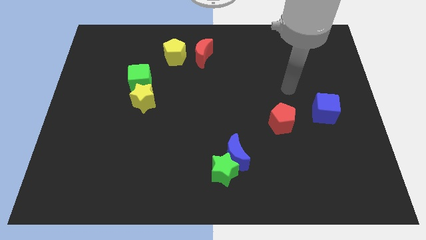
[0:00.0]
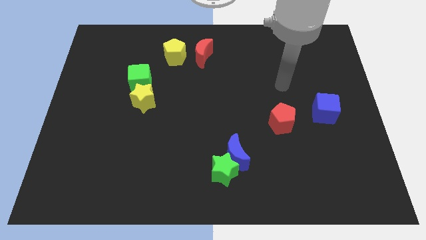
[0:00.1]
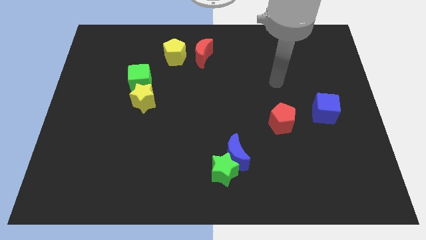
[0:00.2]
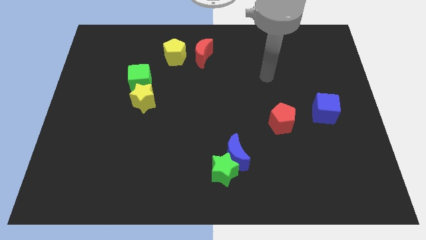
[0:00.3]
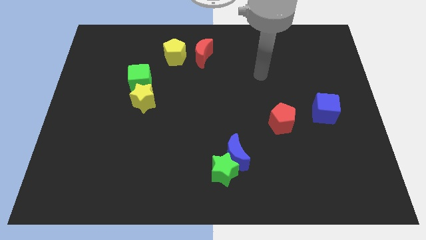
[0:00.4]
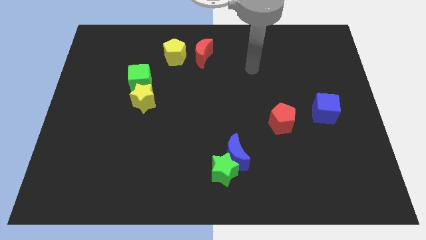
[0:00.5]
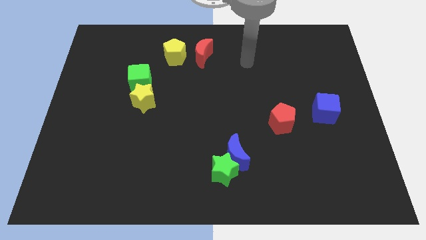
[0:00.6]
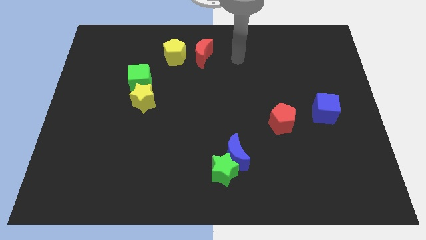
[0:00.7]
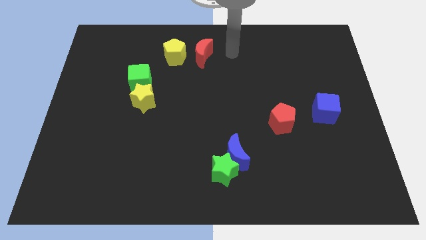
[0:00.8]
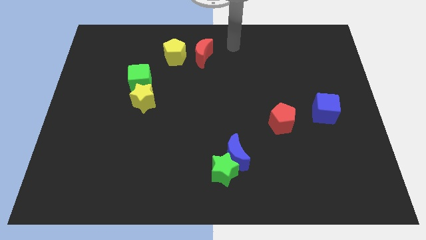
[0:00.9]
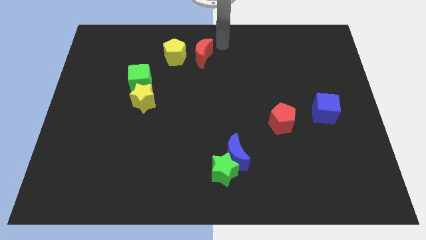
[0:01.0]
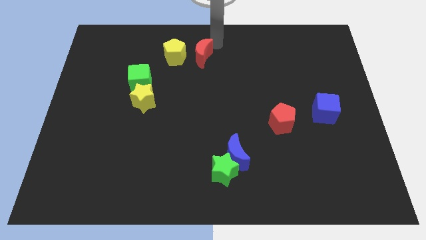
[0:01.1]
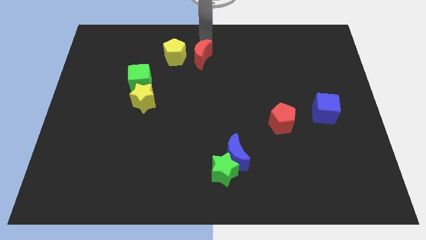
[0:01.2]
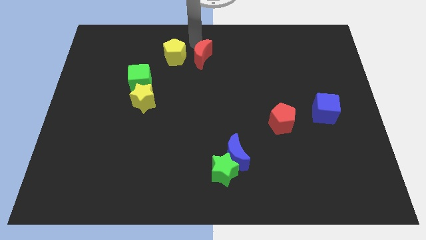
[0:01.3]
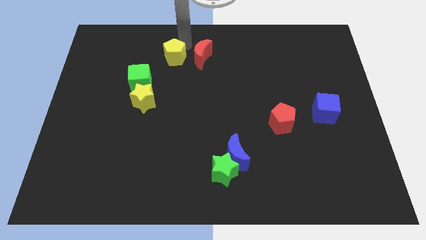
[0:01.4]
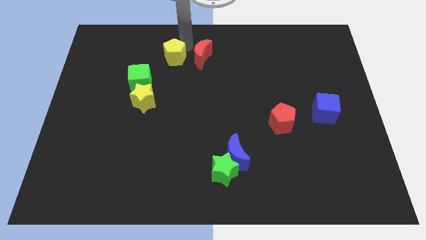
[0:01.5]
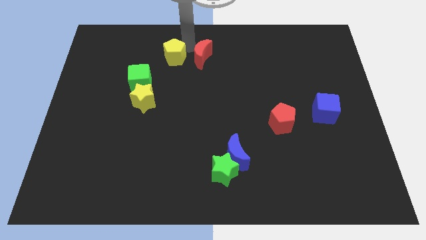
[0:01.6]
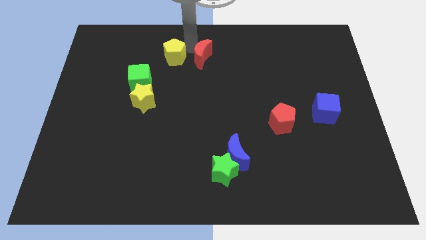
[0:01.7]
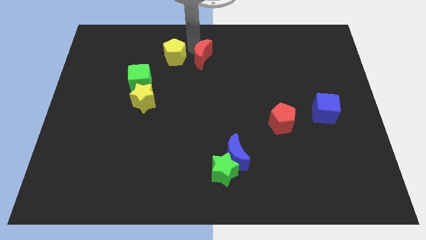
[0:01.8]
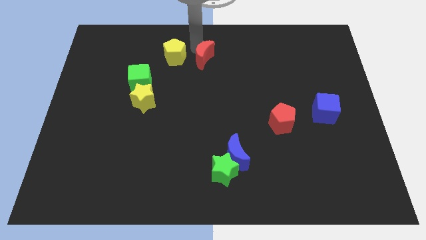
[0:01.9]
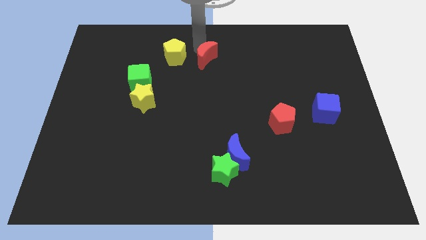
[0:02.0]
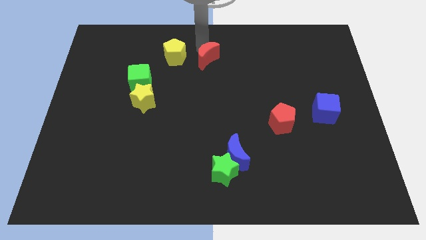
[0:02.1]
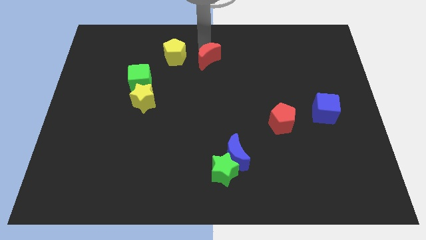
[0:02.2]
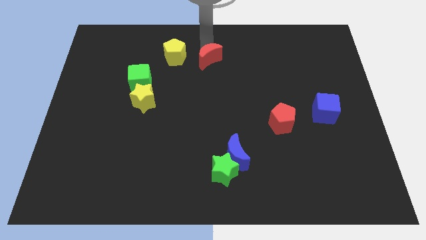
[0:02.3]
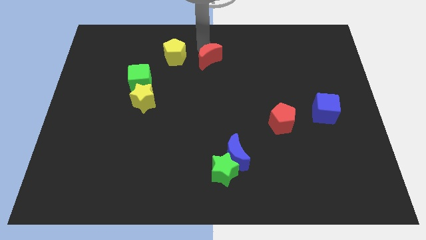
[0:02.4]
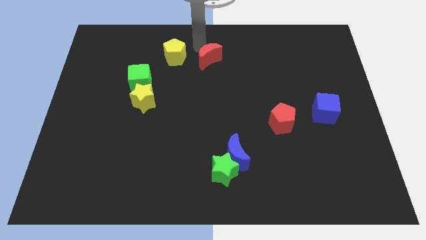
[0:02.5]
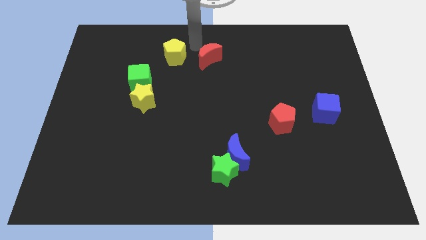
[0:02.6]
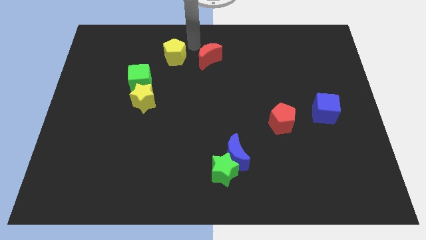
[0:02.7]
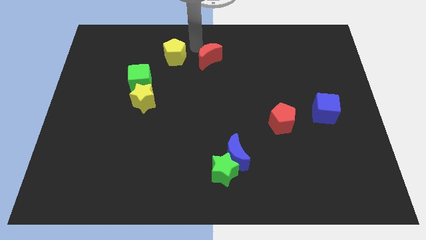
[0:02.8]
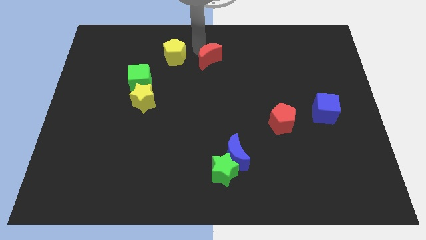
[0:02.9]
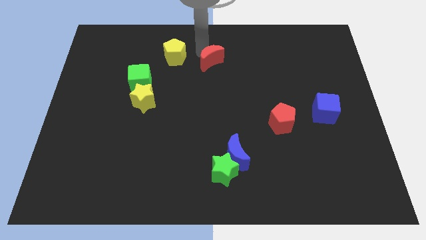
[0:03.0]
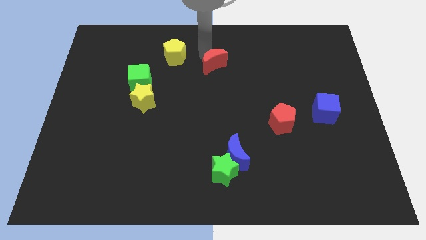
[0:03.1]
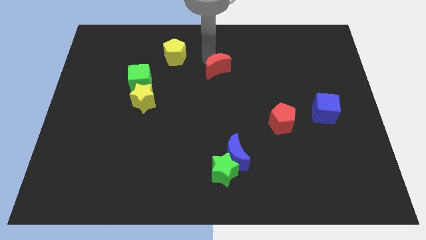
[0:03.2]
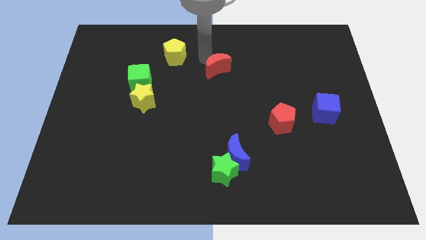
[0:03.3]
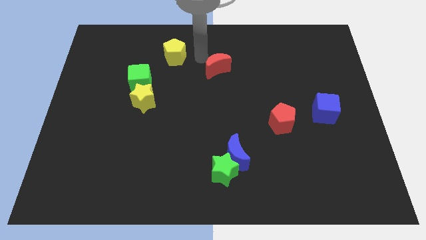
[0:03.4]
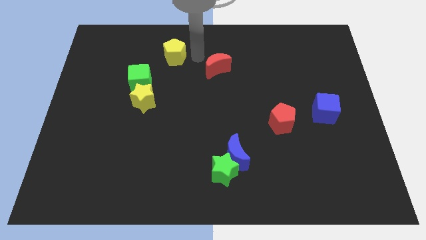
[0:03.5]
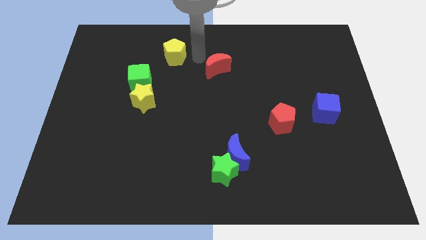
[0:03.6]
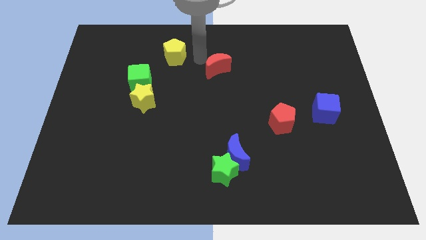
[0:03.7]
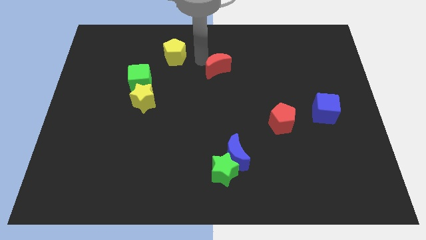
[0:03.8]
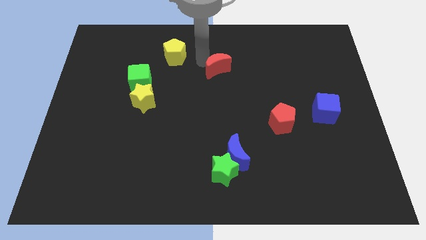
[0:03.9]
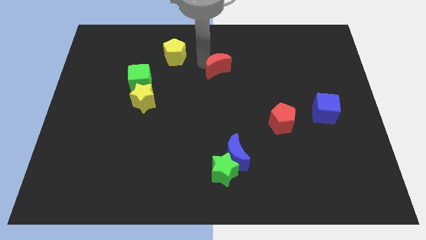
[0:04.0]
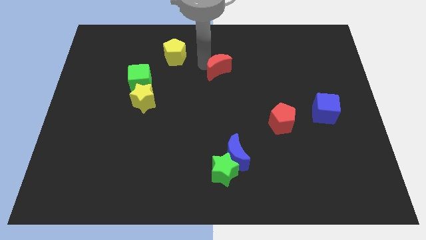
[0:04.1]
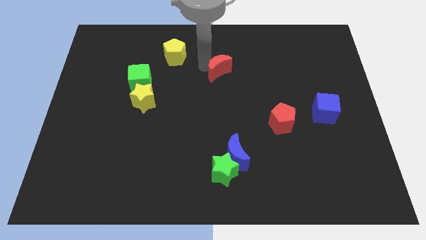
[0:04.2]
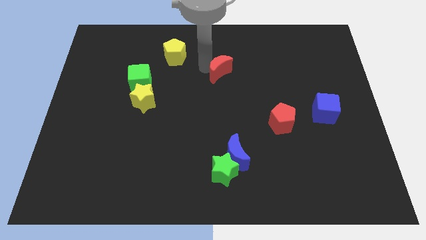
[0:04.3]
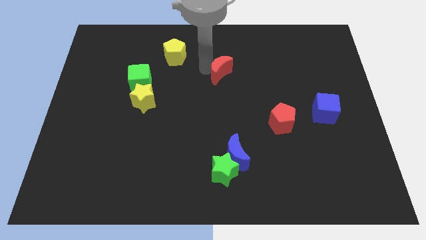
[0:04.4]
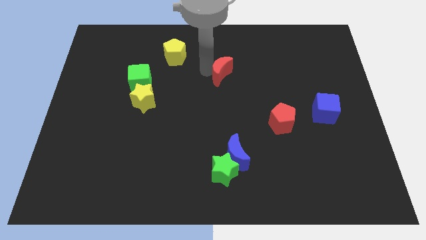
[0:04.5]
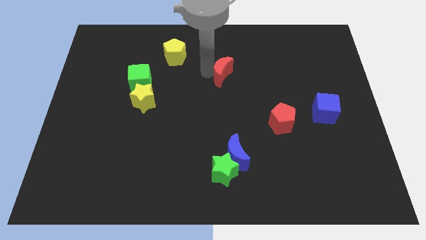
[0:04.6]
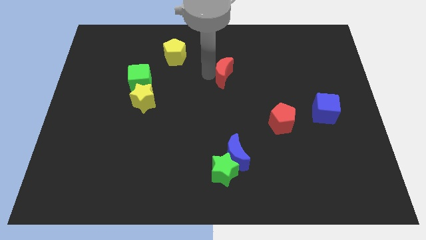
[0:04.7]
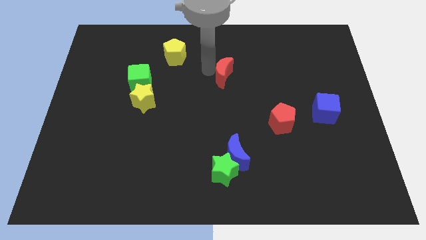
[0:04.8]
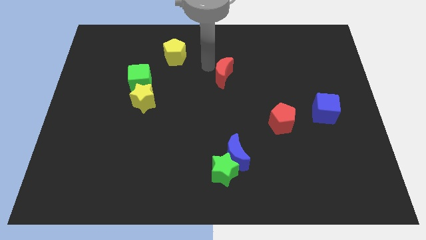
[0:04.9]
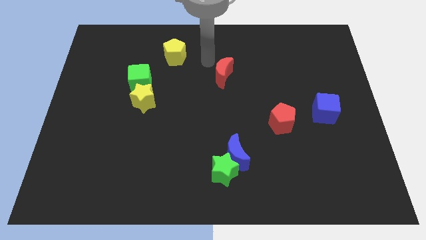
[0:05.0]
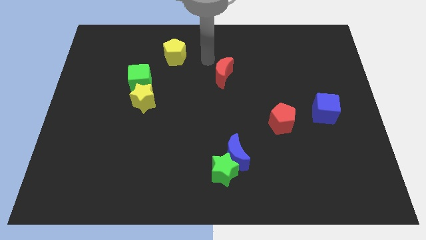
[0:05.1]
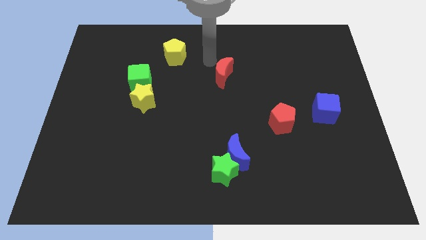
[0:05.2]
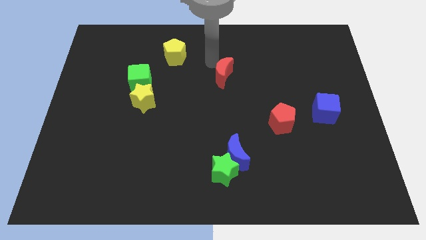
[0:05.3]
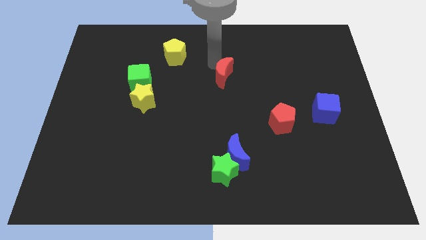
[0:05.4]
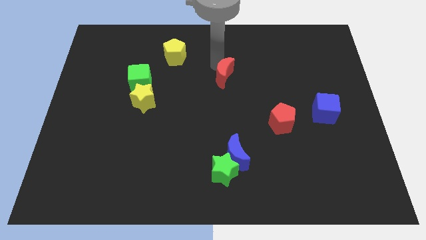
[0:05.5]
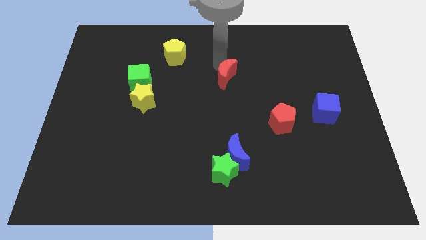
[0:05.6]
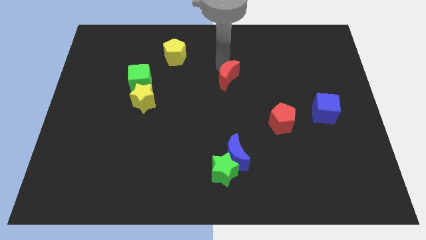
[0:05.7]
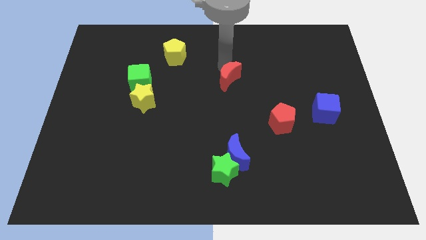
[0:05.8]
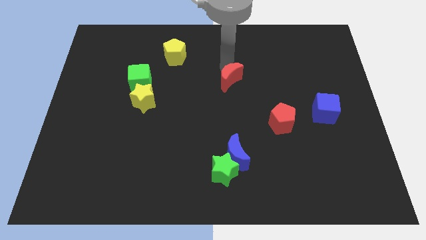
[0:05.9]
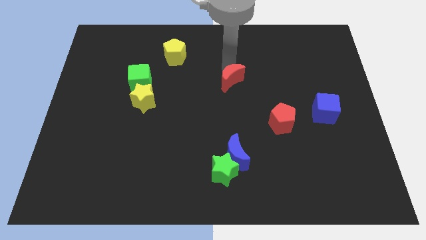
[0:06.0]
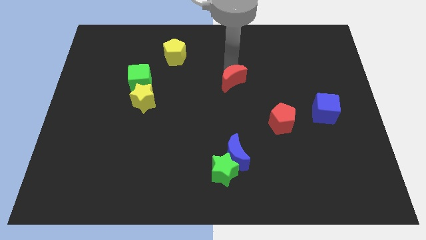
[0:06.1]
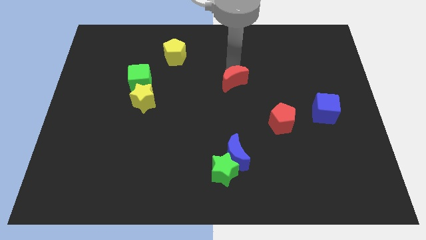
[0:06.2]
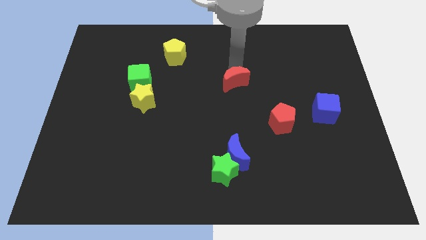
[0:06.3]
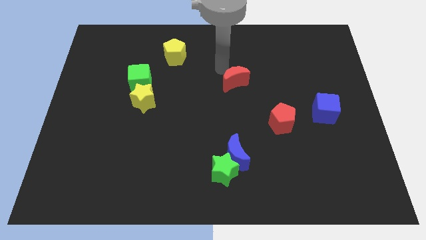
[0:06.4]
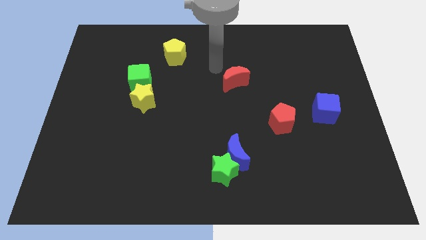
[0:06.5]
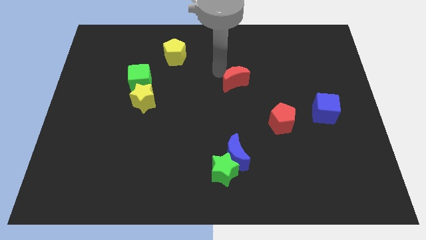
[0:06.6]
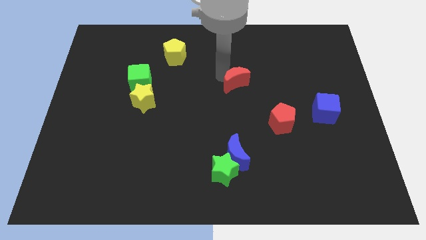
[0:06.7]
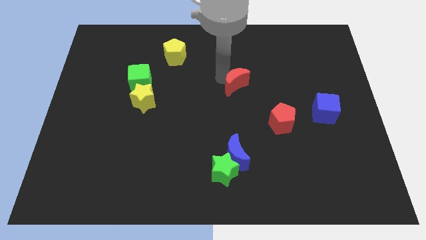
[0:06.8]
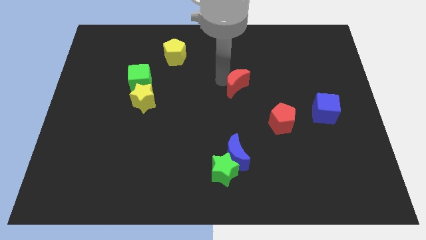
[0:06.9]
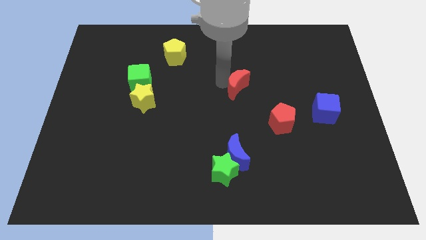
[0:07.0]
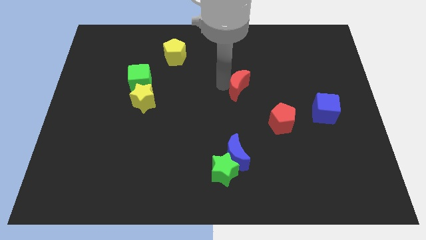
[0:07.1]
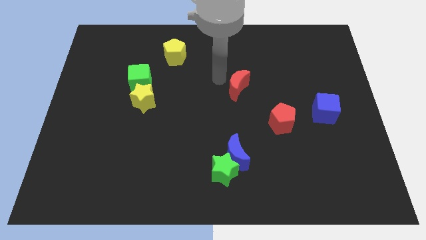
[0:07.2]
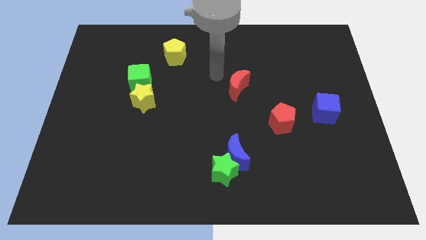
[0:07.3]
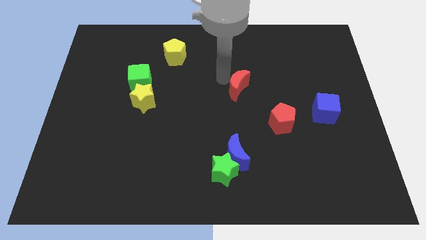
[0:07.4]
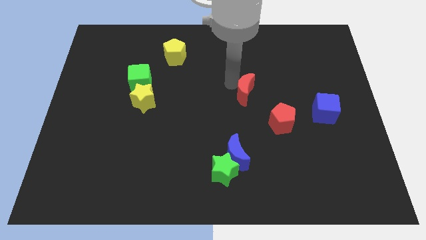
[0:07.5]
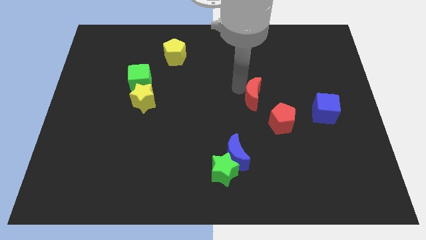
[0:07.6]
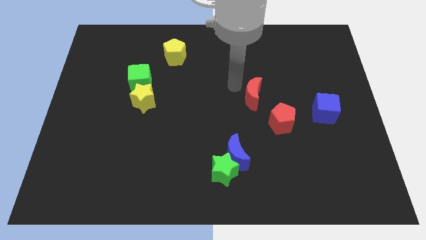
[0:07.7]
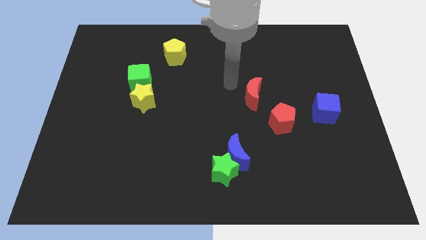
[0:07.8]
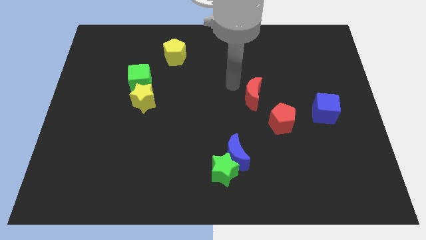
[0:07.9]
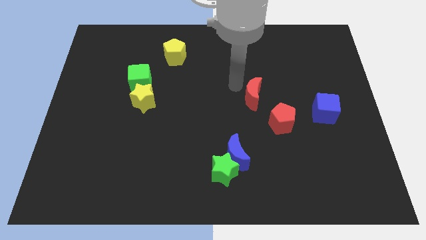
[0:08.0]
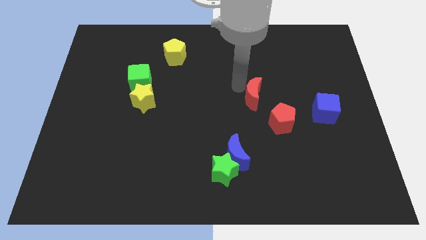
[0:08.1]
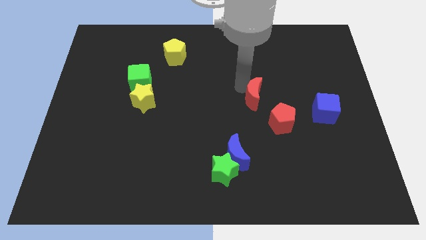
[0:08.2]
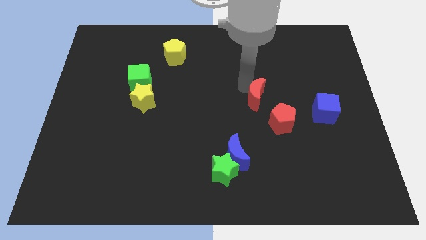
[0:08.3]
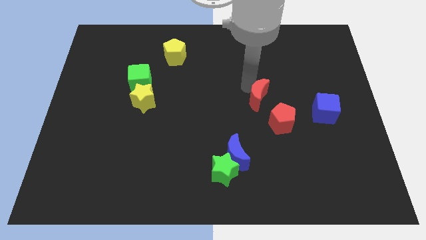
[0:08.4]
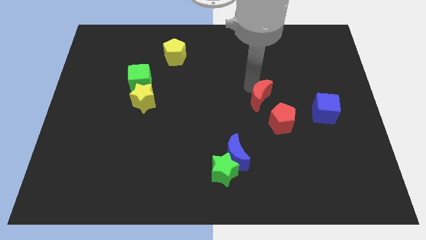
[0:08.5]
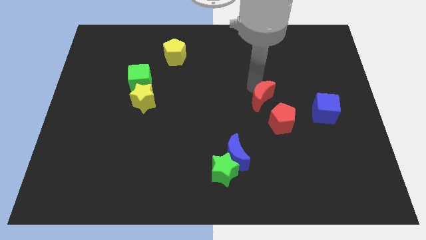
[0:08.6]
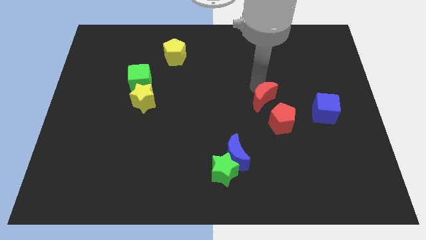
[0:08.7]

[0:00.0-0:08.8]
slide the red moon to the left of the blue cube
